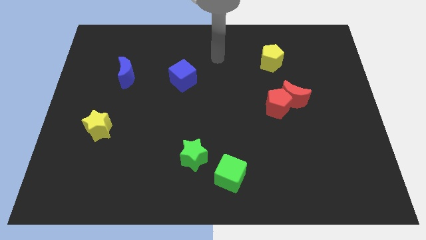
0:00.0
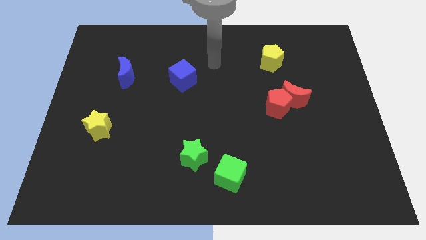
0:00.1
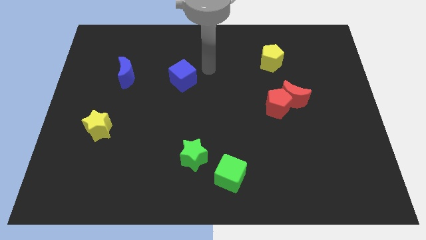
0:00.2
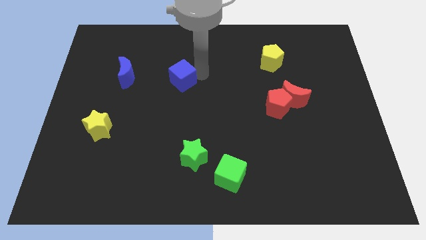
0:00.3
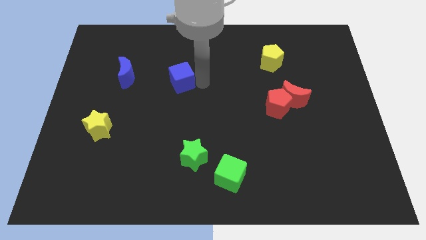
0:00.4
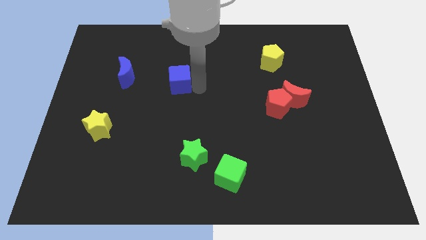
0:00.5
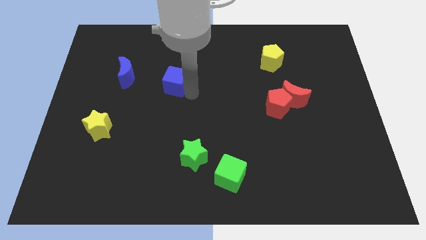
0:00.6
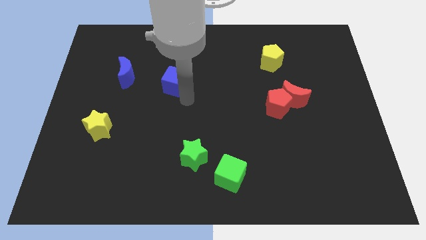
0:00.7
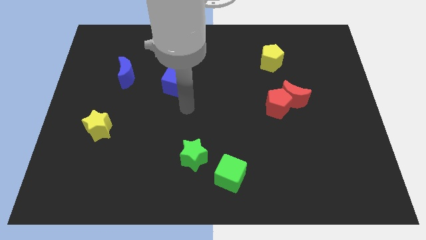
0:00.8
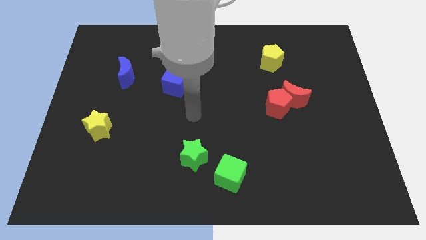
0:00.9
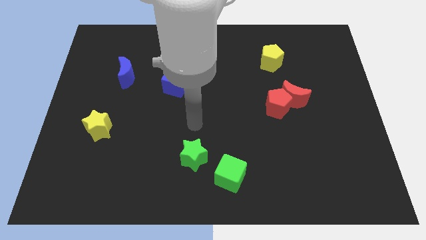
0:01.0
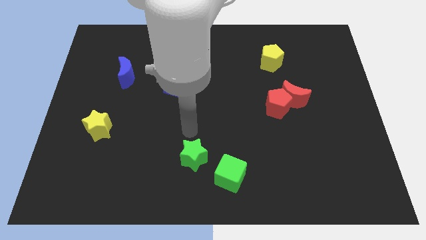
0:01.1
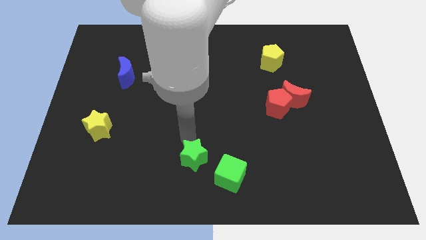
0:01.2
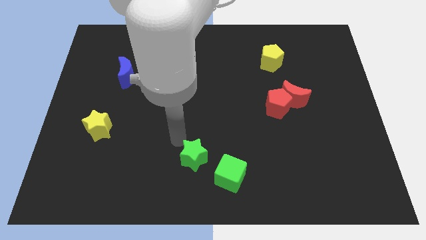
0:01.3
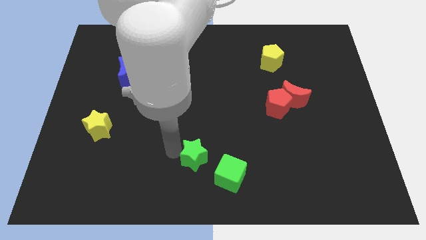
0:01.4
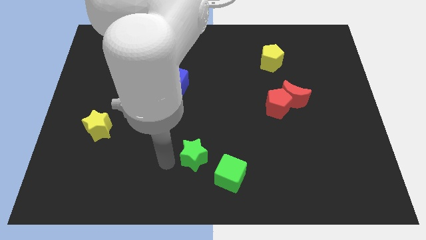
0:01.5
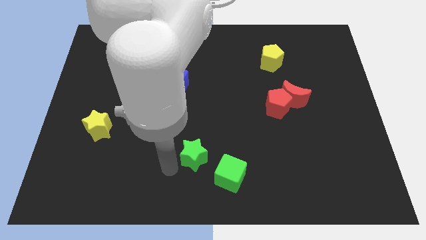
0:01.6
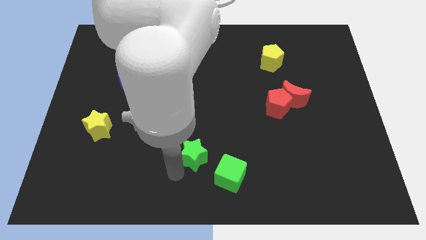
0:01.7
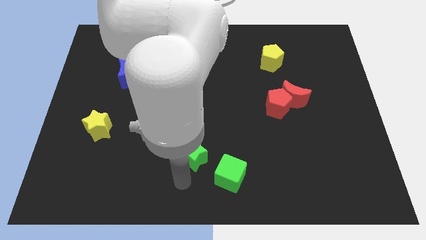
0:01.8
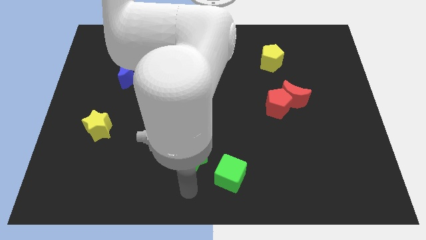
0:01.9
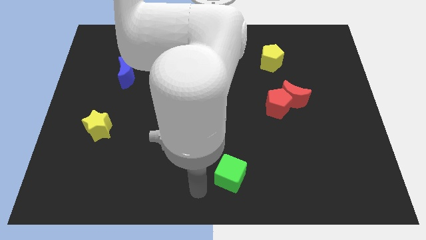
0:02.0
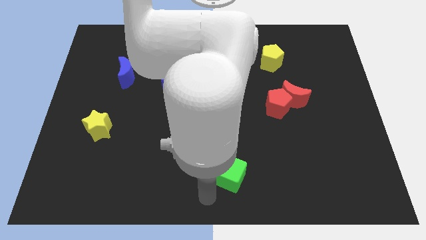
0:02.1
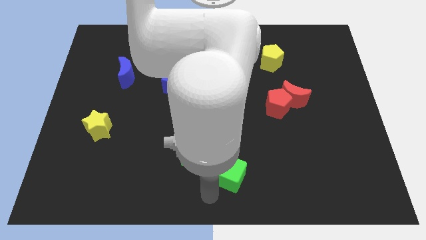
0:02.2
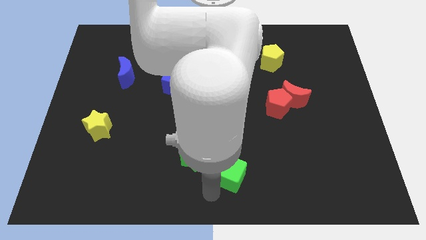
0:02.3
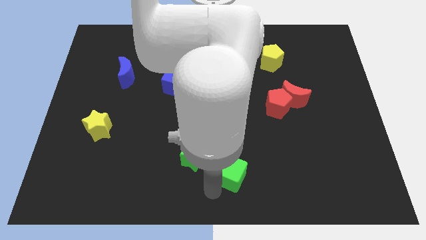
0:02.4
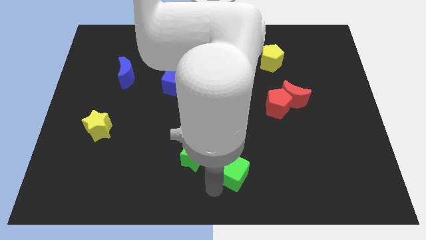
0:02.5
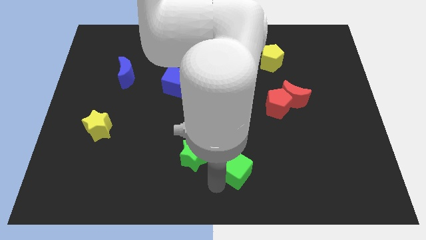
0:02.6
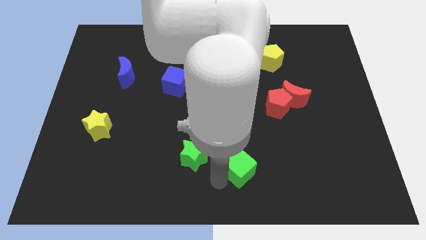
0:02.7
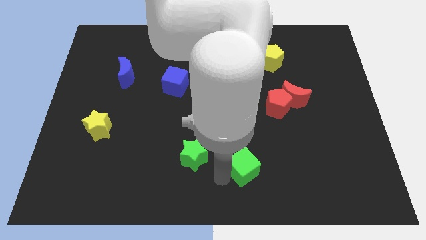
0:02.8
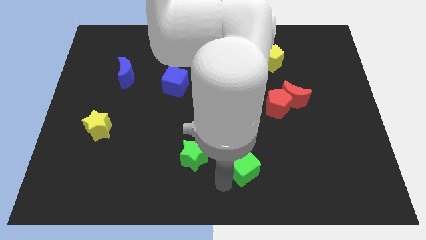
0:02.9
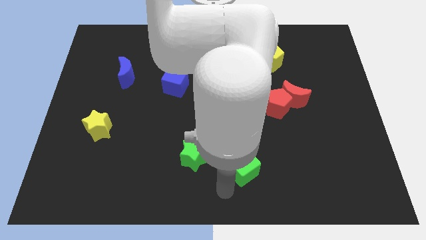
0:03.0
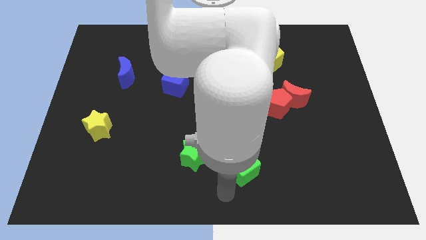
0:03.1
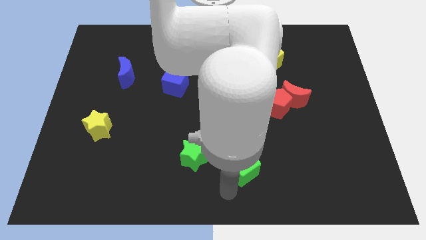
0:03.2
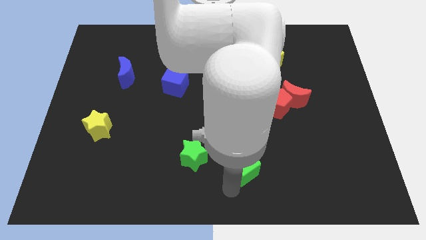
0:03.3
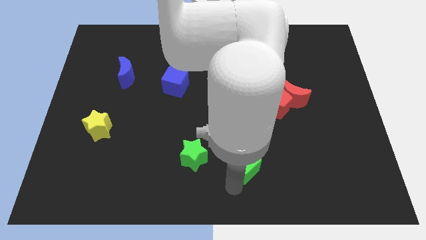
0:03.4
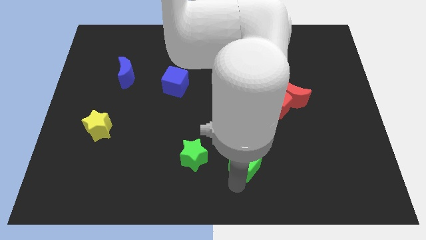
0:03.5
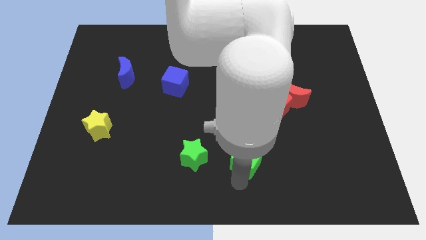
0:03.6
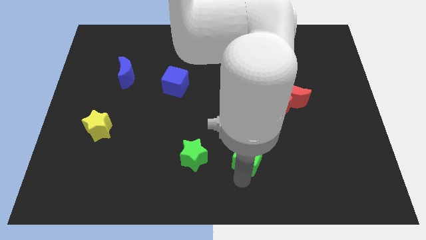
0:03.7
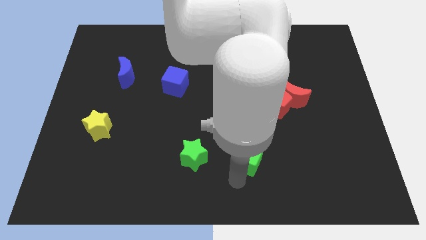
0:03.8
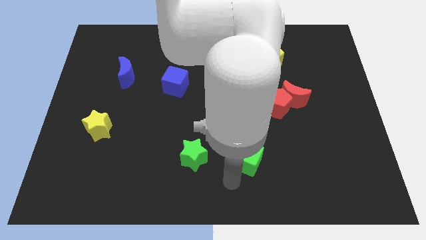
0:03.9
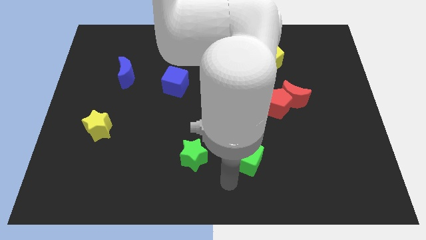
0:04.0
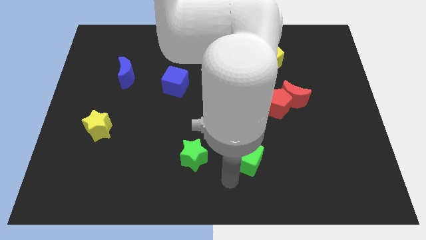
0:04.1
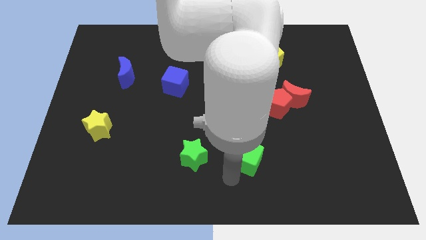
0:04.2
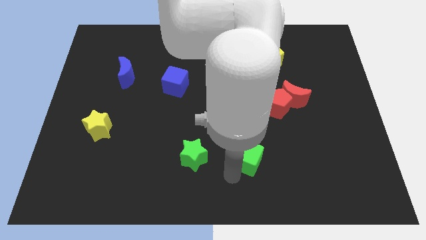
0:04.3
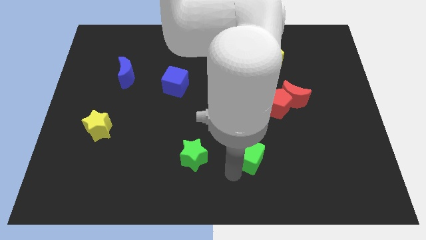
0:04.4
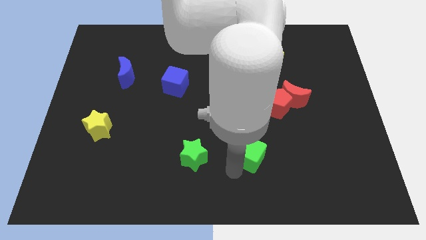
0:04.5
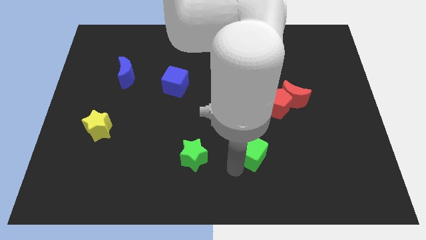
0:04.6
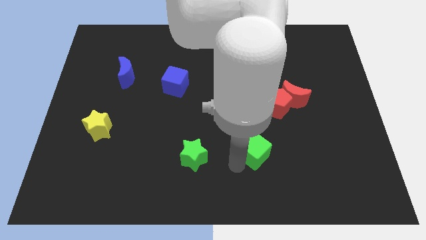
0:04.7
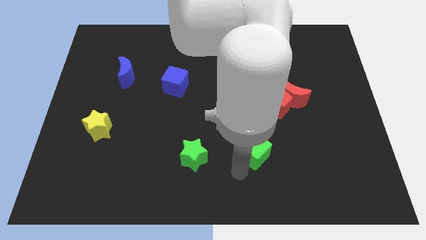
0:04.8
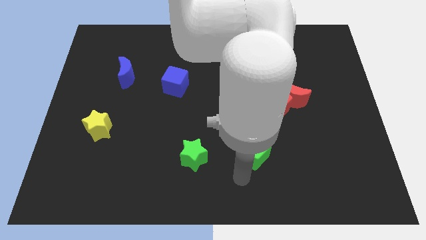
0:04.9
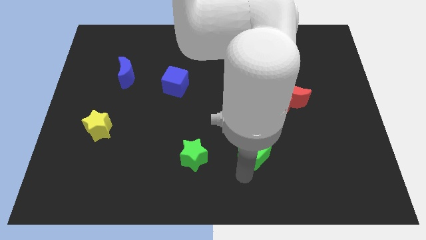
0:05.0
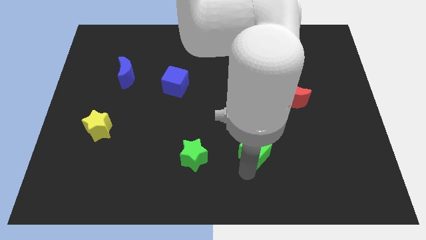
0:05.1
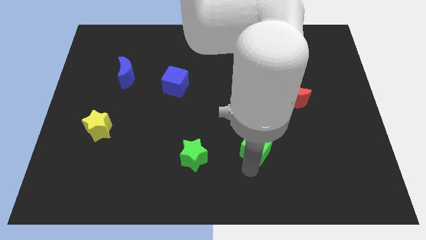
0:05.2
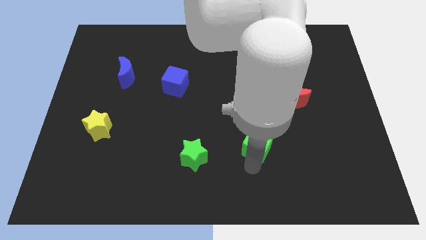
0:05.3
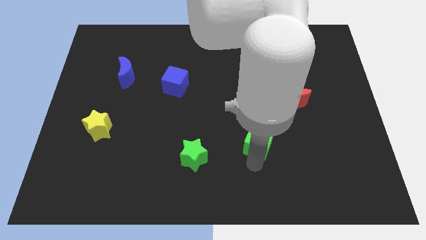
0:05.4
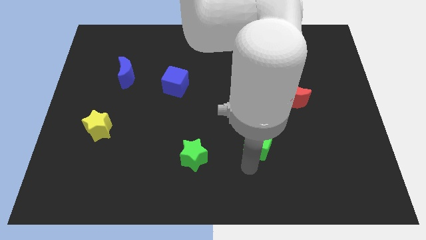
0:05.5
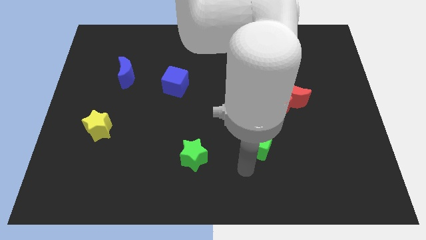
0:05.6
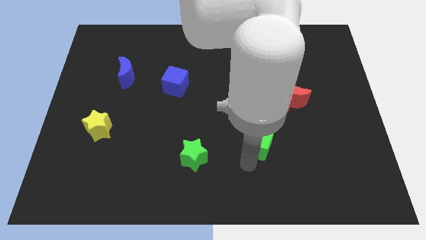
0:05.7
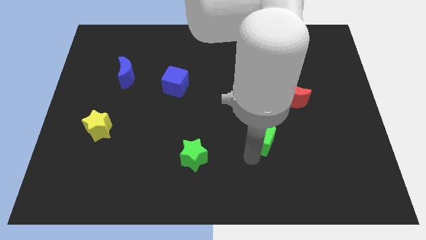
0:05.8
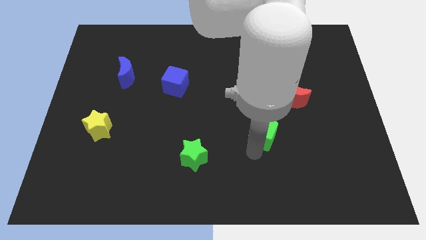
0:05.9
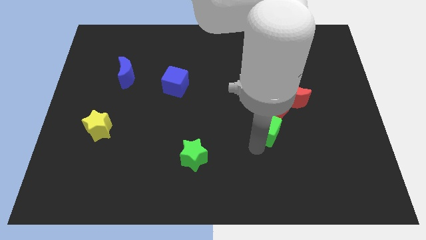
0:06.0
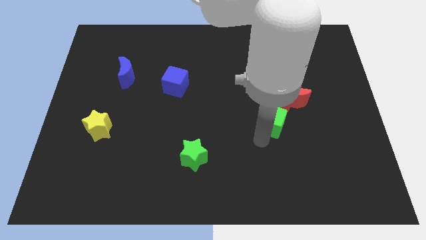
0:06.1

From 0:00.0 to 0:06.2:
slide the green cube to the red pentagon

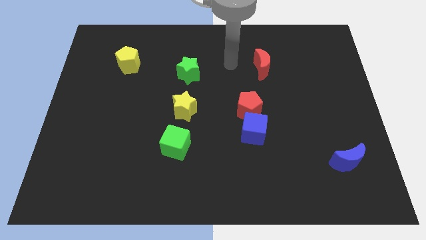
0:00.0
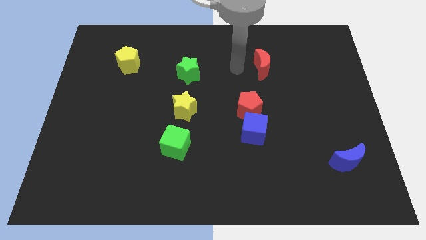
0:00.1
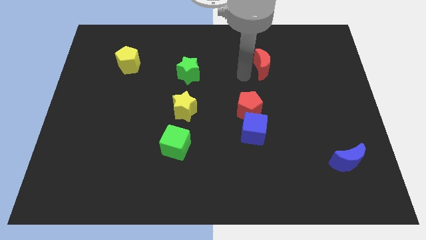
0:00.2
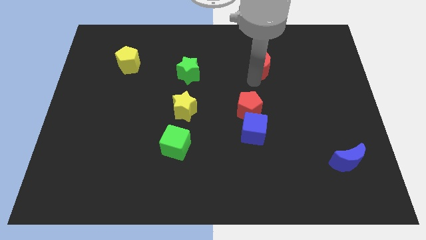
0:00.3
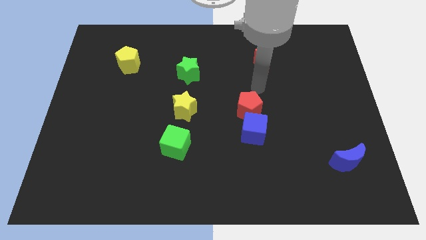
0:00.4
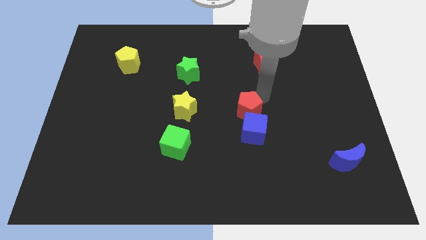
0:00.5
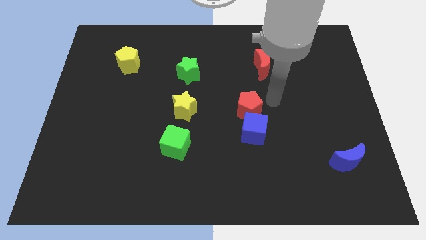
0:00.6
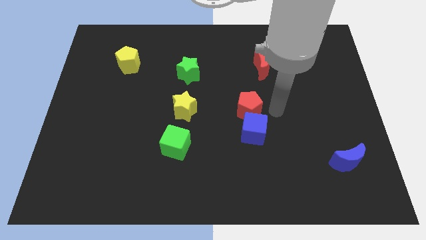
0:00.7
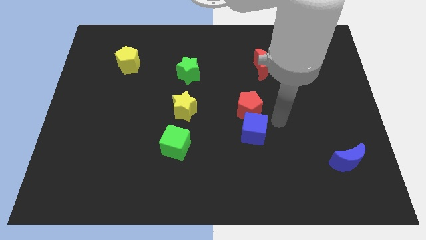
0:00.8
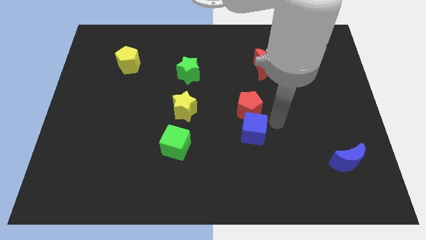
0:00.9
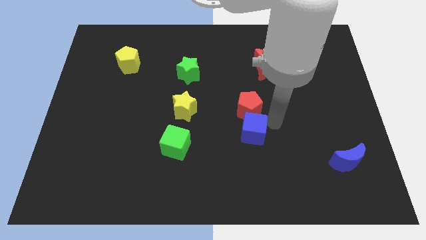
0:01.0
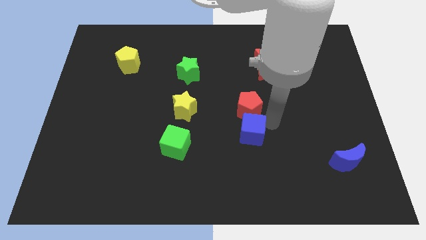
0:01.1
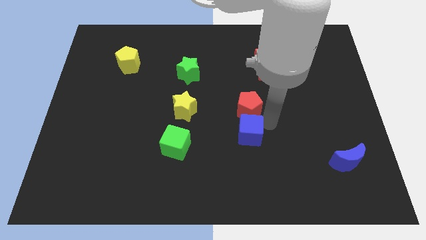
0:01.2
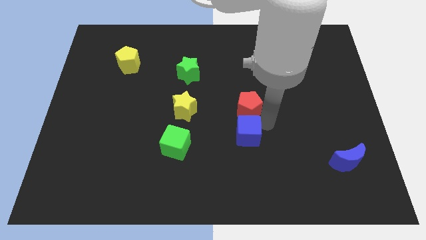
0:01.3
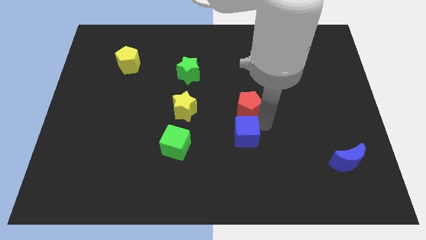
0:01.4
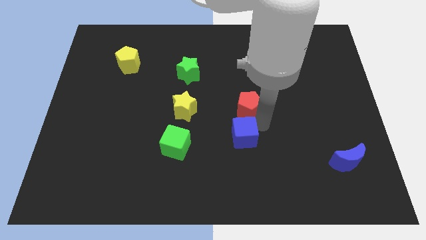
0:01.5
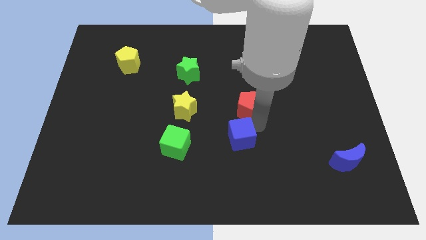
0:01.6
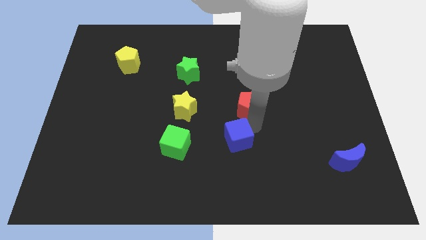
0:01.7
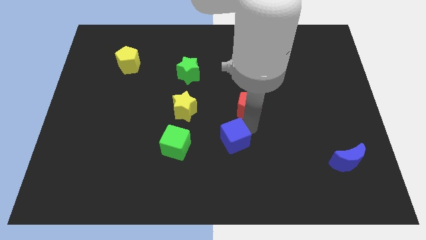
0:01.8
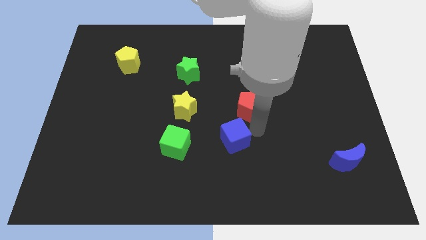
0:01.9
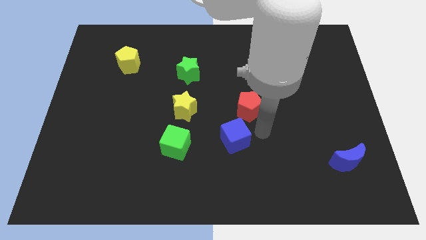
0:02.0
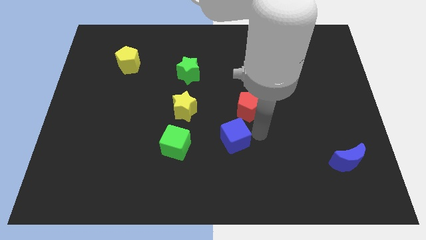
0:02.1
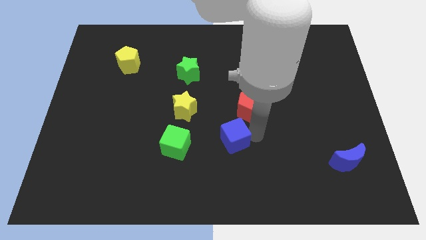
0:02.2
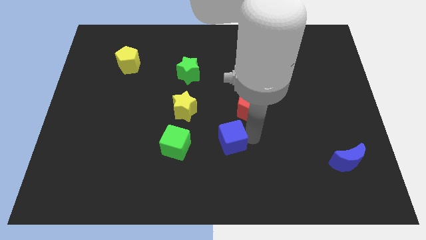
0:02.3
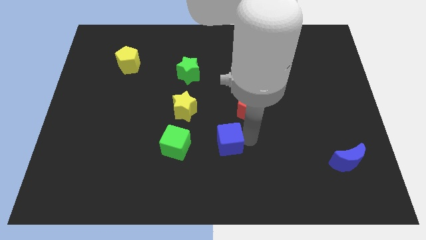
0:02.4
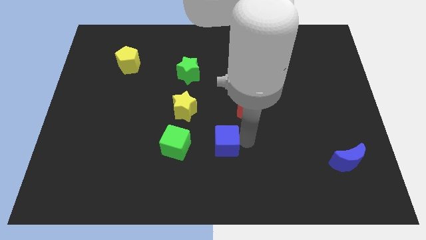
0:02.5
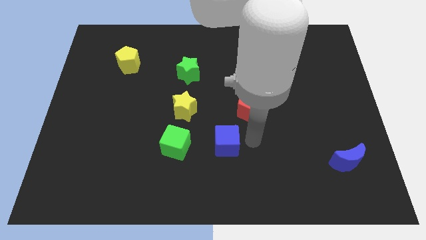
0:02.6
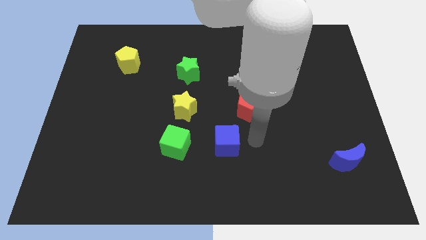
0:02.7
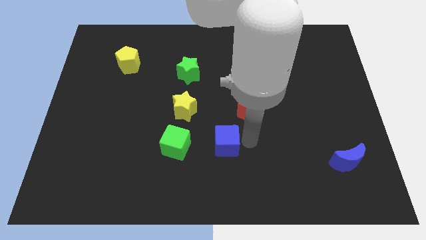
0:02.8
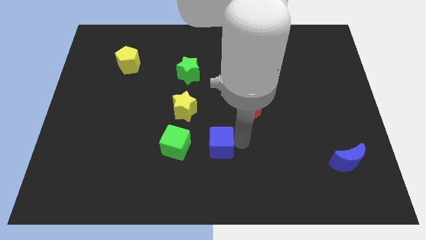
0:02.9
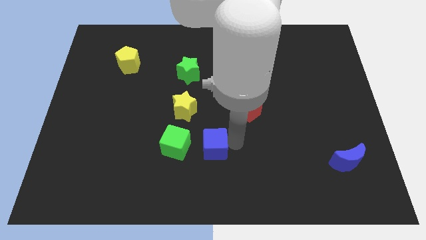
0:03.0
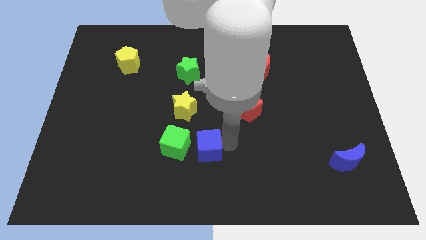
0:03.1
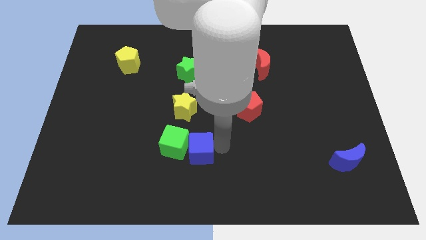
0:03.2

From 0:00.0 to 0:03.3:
push the blue cube to the green cube
